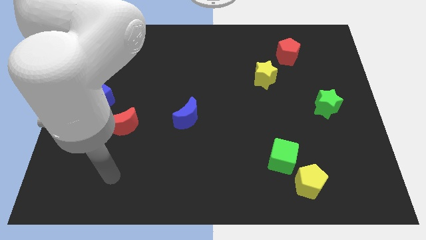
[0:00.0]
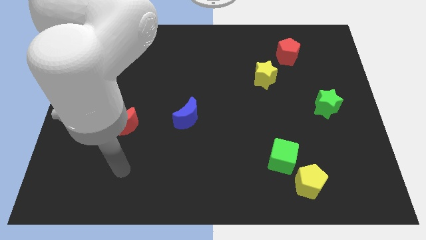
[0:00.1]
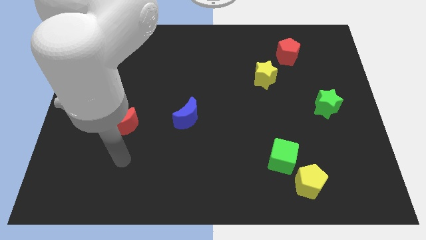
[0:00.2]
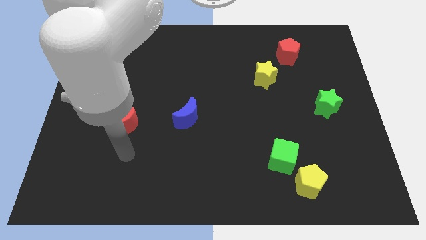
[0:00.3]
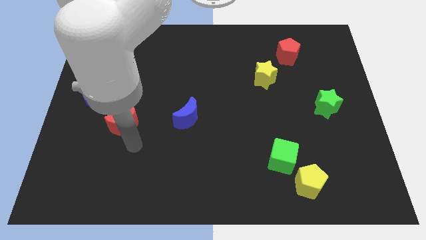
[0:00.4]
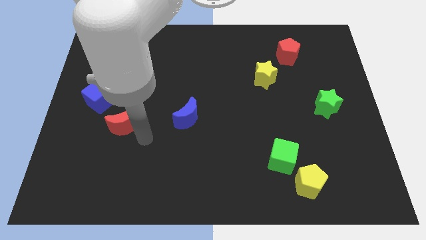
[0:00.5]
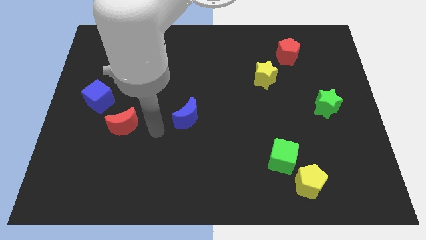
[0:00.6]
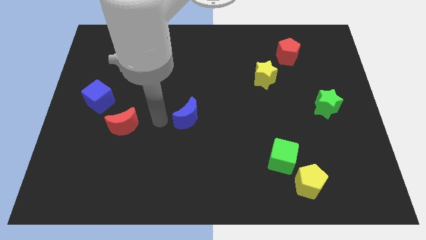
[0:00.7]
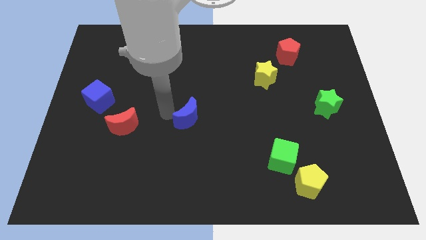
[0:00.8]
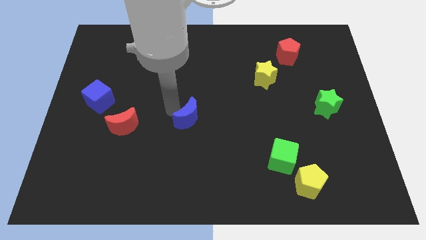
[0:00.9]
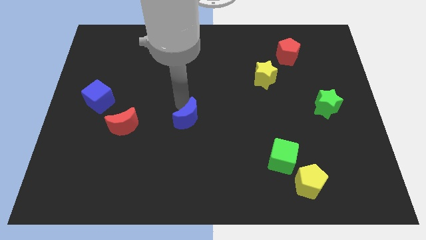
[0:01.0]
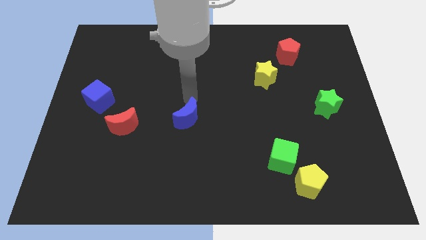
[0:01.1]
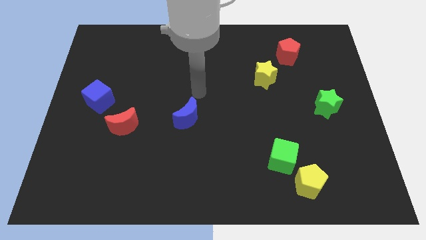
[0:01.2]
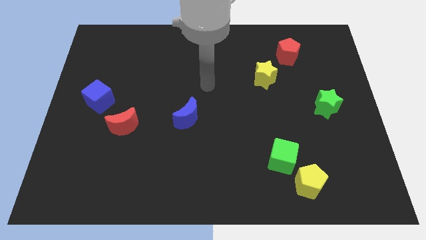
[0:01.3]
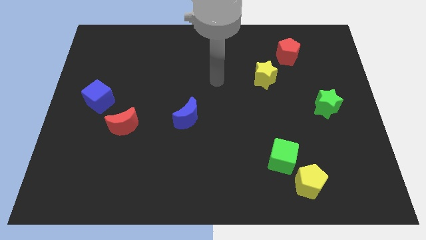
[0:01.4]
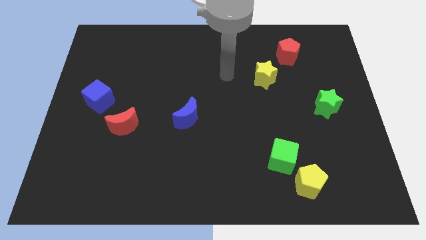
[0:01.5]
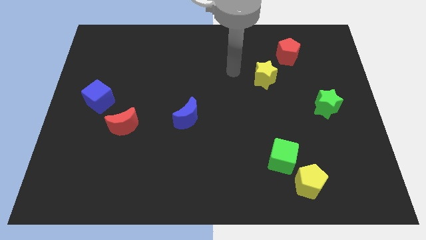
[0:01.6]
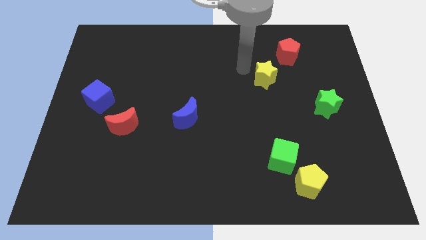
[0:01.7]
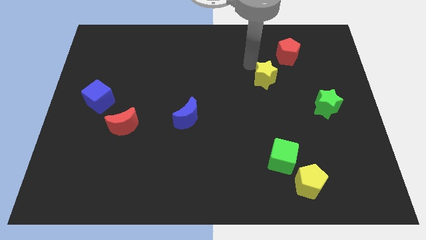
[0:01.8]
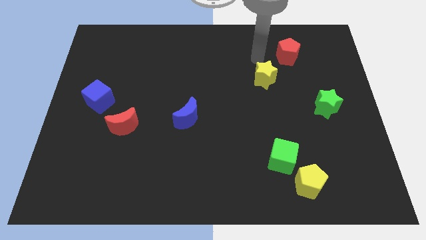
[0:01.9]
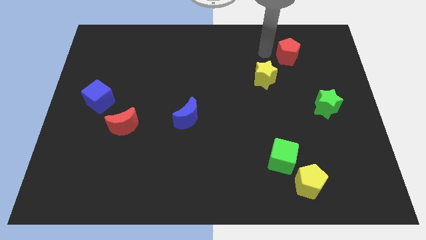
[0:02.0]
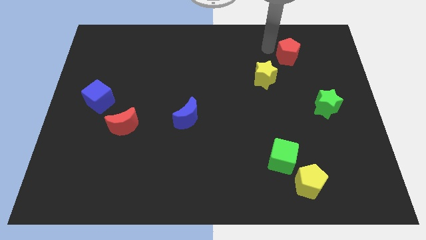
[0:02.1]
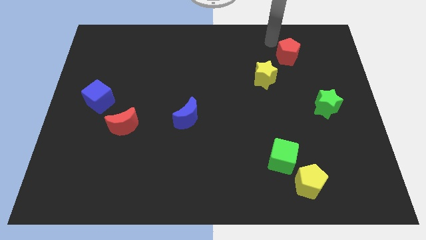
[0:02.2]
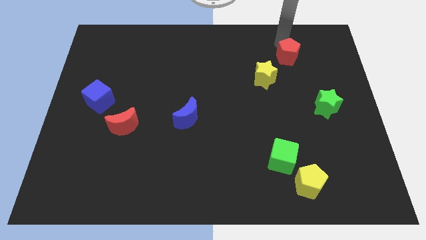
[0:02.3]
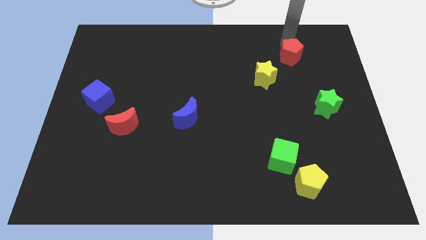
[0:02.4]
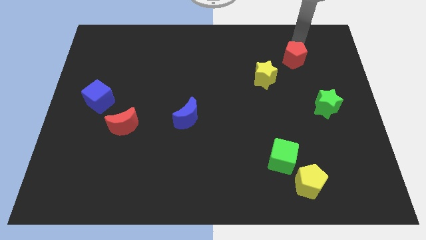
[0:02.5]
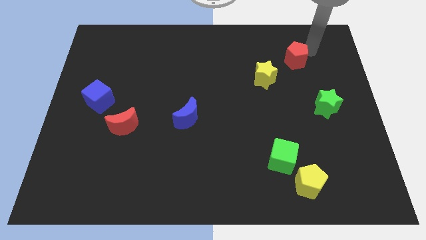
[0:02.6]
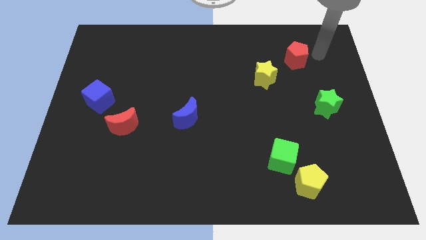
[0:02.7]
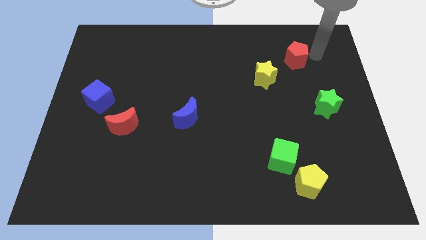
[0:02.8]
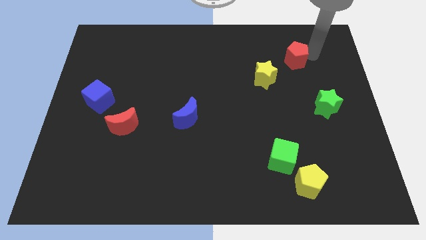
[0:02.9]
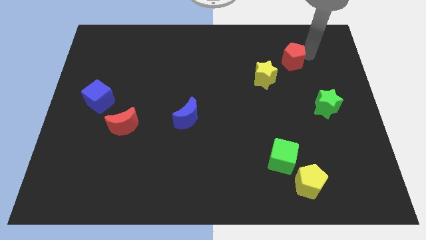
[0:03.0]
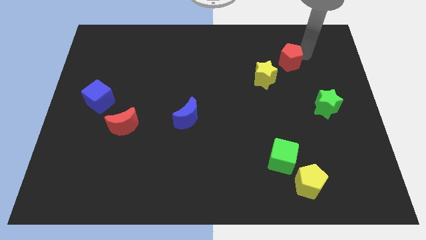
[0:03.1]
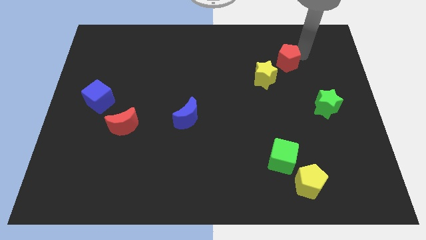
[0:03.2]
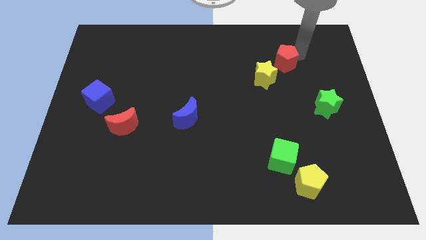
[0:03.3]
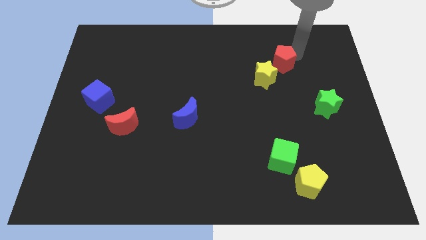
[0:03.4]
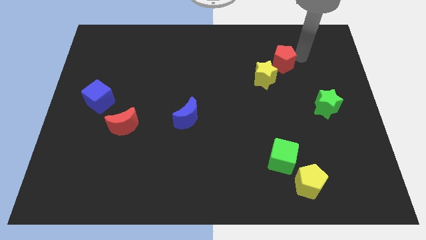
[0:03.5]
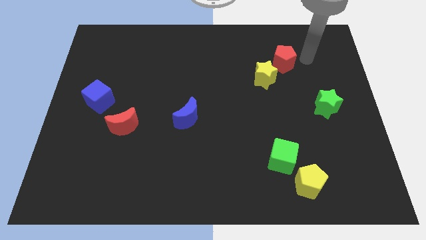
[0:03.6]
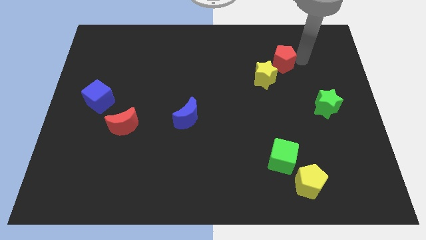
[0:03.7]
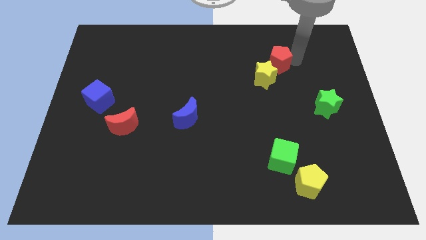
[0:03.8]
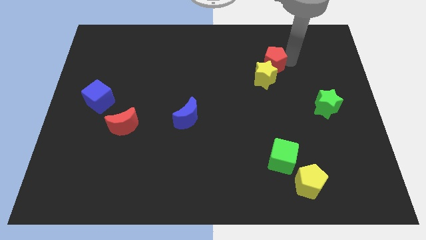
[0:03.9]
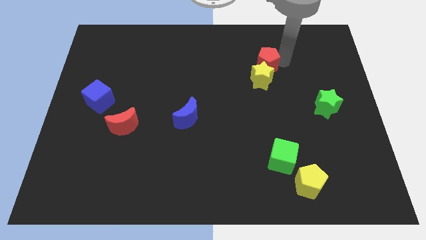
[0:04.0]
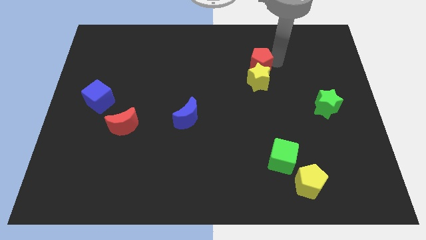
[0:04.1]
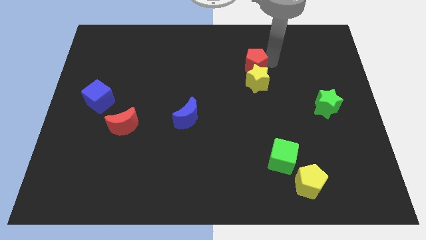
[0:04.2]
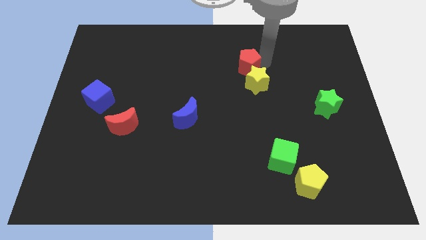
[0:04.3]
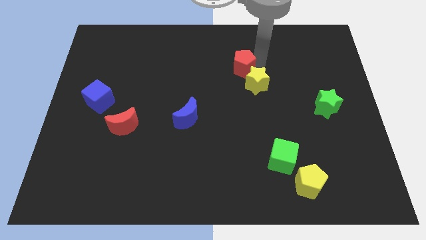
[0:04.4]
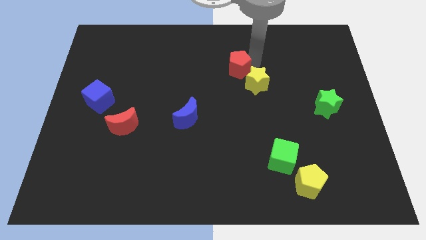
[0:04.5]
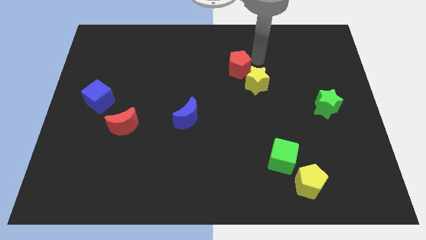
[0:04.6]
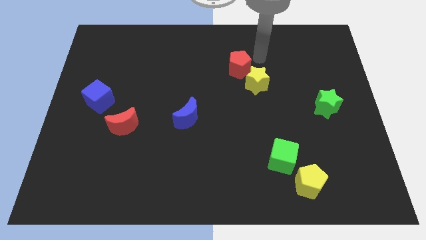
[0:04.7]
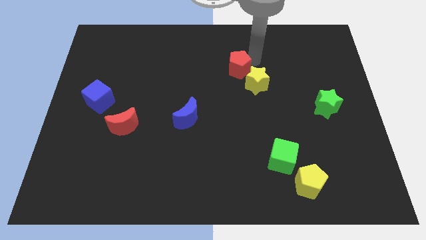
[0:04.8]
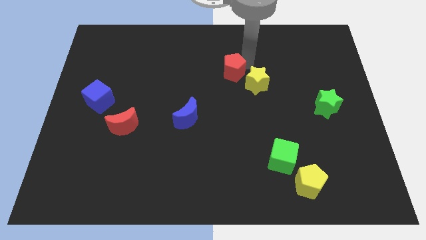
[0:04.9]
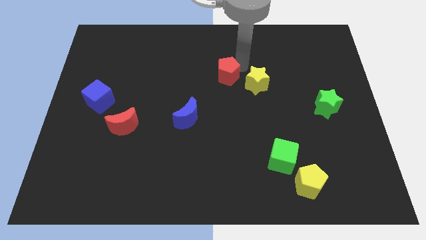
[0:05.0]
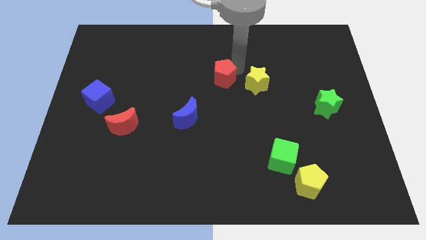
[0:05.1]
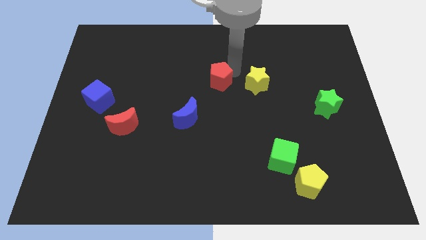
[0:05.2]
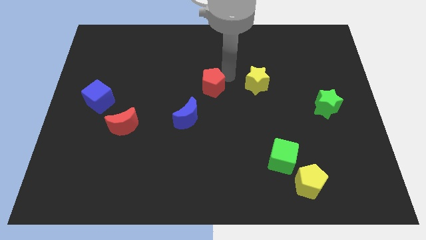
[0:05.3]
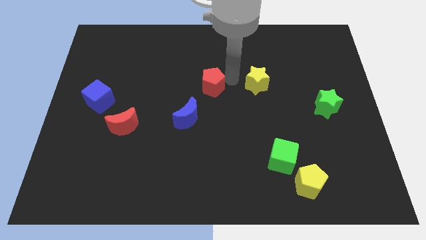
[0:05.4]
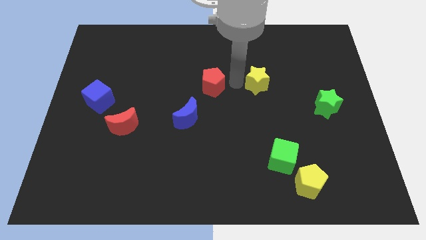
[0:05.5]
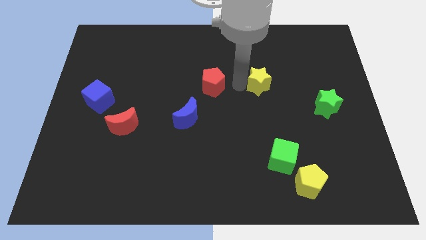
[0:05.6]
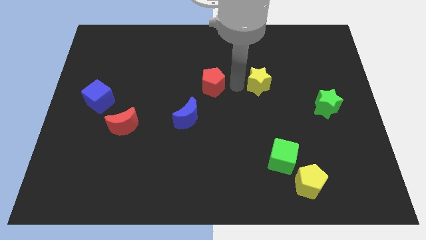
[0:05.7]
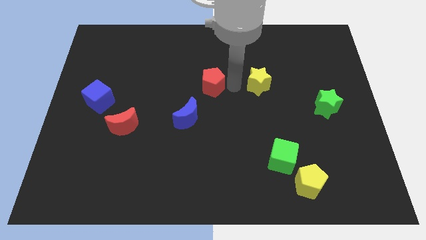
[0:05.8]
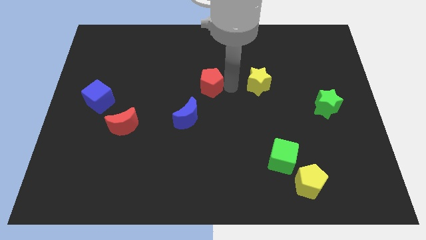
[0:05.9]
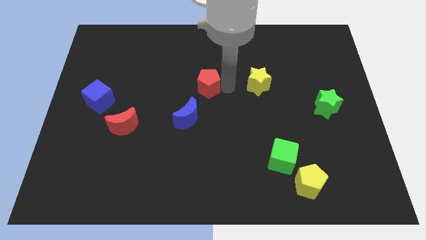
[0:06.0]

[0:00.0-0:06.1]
push the red pentagon to the top side of the blue moon

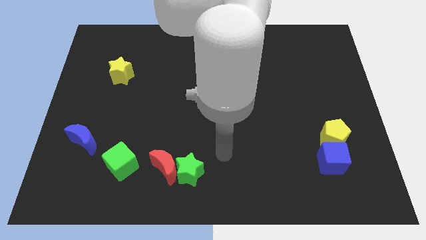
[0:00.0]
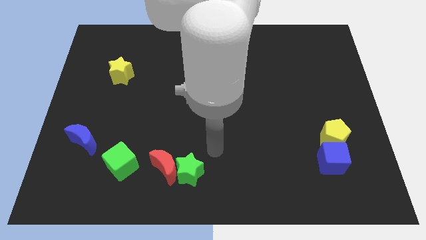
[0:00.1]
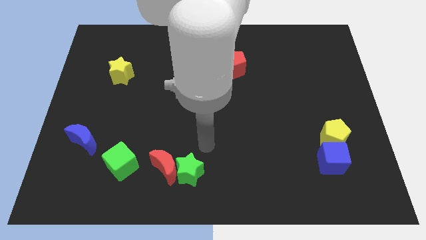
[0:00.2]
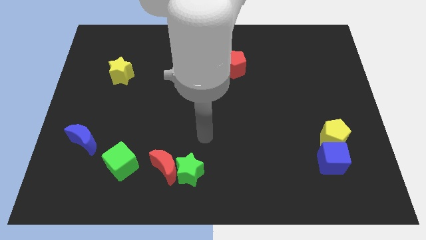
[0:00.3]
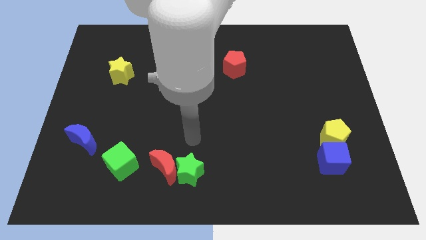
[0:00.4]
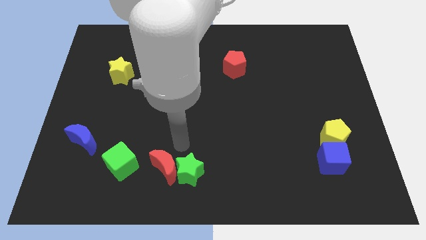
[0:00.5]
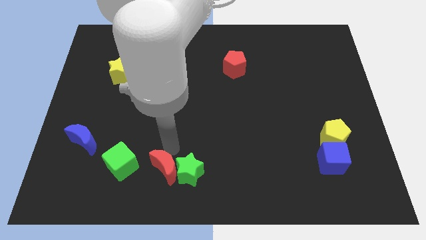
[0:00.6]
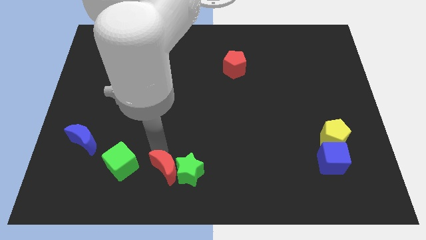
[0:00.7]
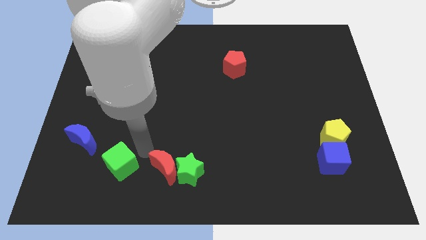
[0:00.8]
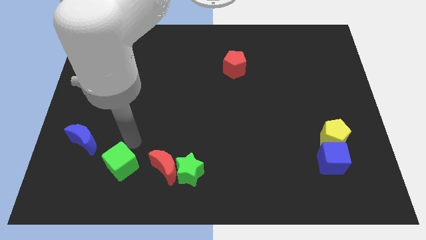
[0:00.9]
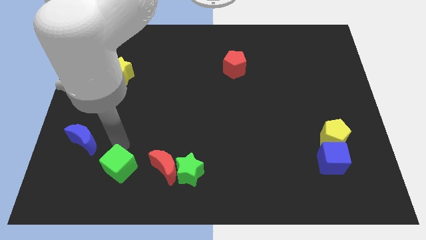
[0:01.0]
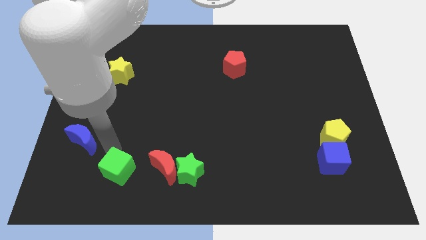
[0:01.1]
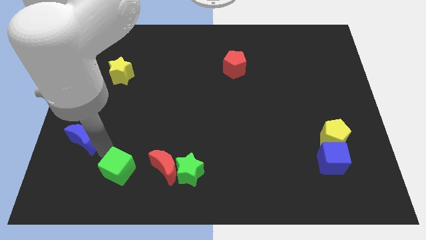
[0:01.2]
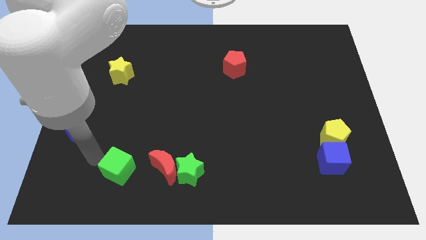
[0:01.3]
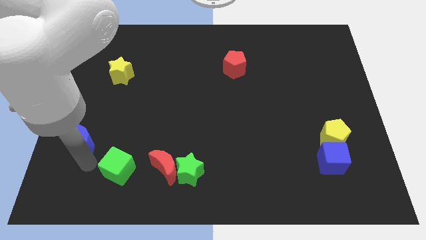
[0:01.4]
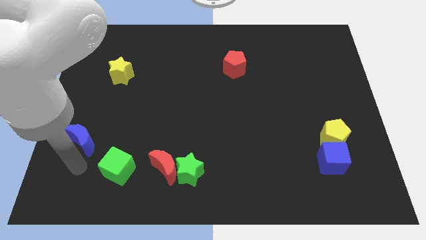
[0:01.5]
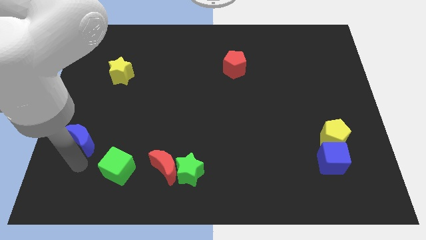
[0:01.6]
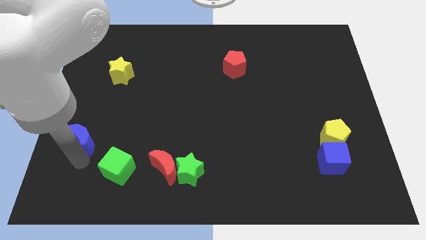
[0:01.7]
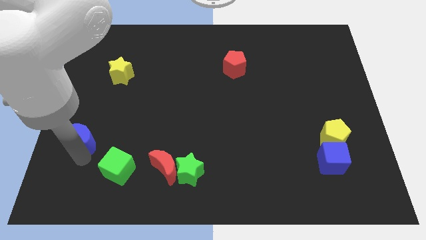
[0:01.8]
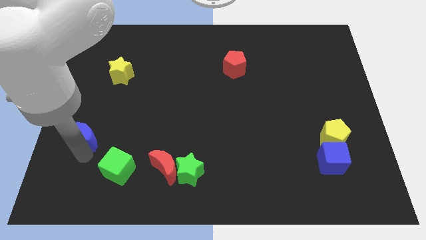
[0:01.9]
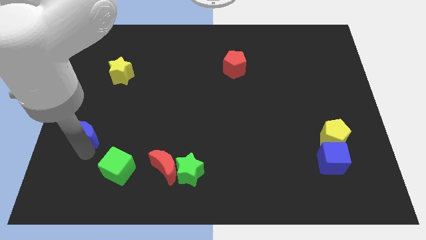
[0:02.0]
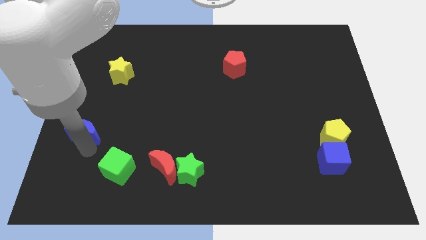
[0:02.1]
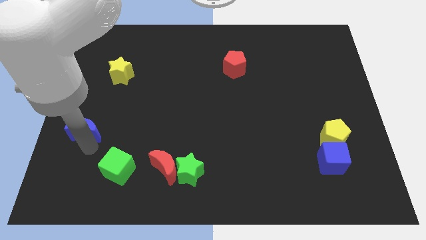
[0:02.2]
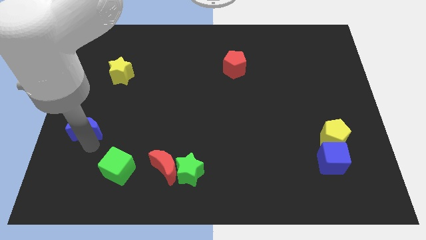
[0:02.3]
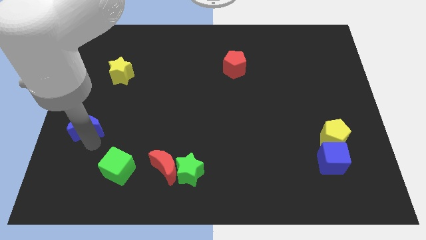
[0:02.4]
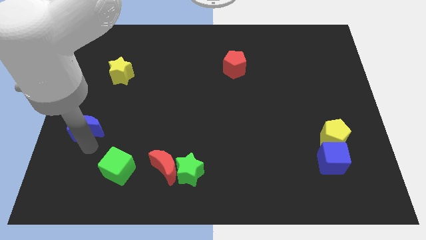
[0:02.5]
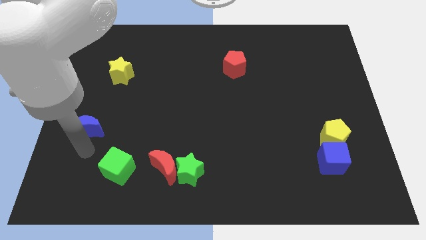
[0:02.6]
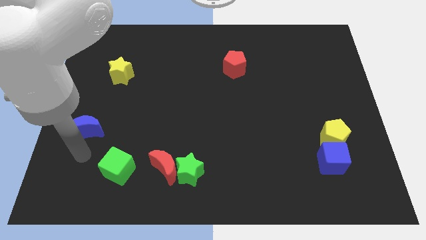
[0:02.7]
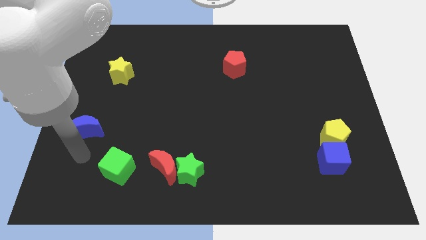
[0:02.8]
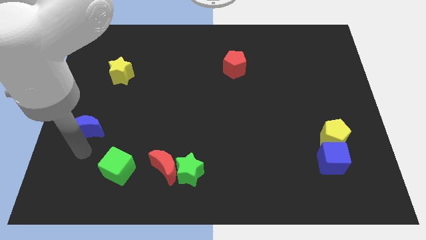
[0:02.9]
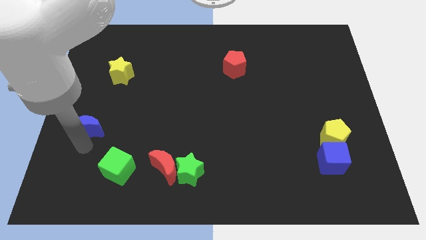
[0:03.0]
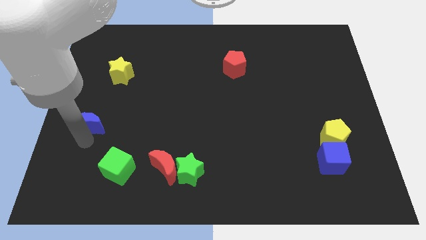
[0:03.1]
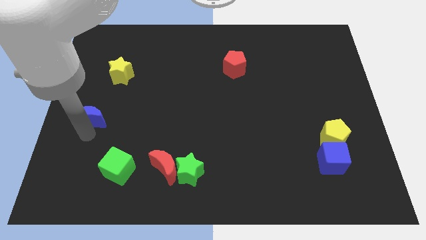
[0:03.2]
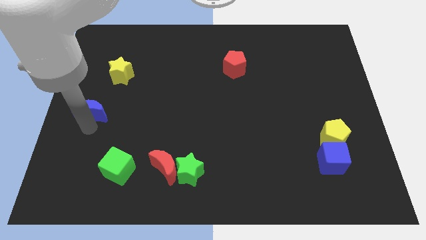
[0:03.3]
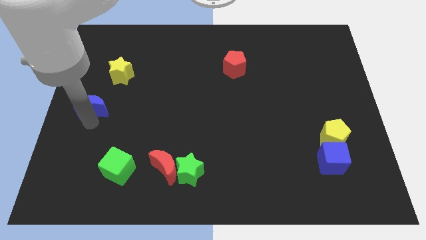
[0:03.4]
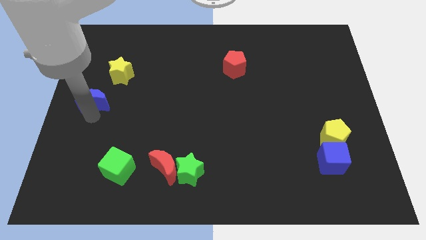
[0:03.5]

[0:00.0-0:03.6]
move the blue moon to the bottom left side of the yellow star
